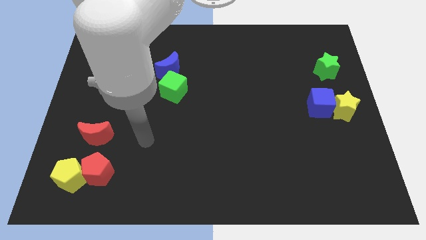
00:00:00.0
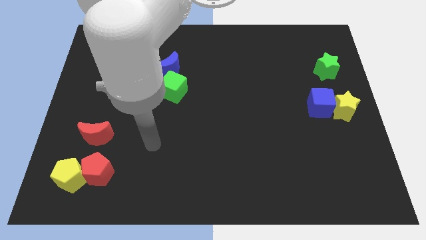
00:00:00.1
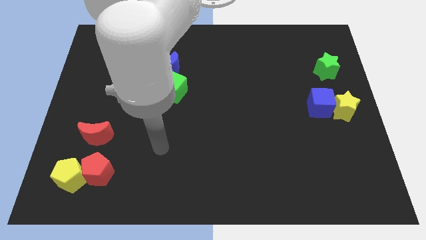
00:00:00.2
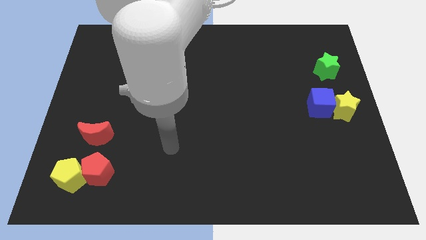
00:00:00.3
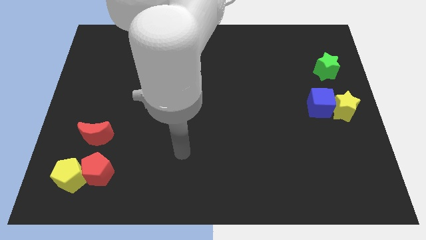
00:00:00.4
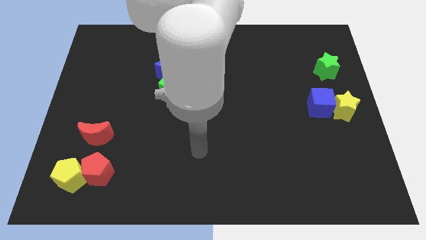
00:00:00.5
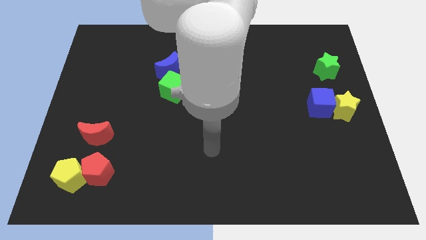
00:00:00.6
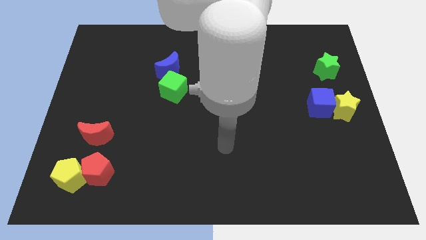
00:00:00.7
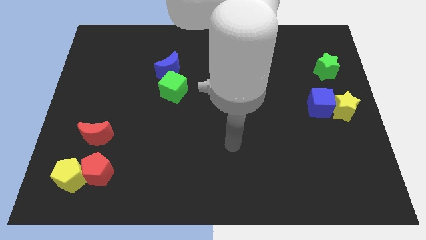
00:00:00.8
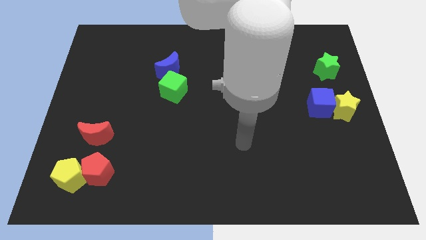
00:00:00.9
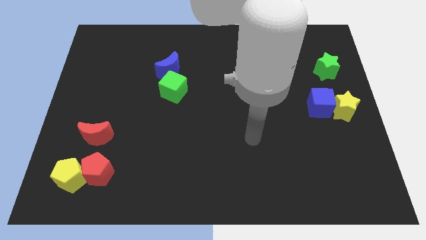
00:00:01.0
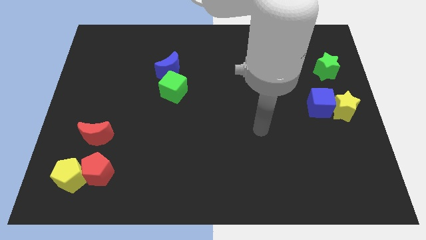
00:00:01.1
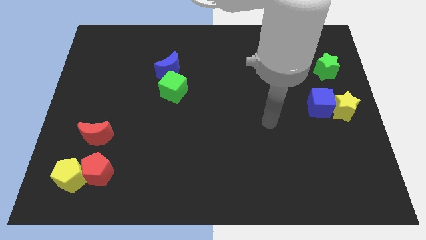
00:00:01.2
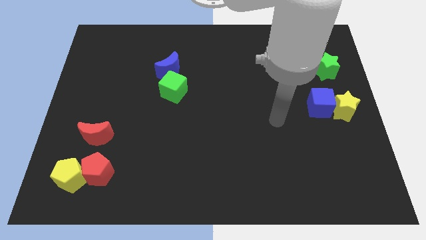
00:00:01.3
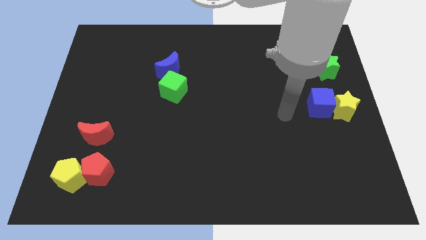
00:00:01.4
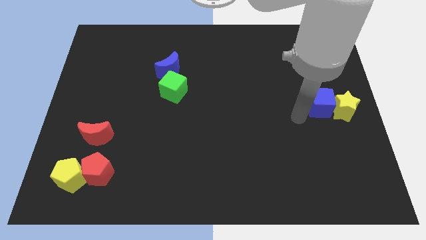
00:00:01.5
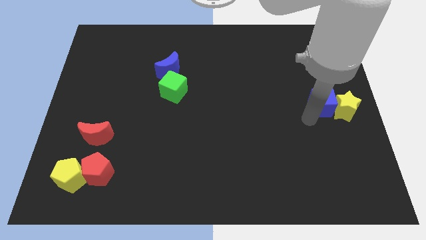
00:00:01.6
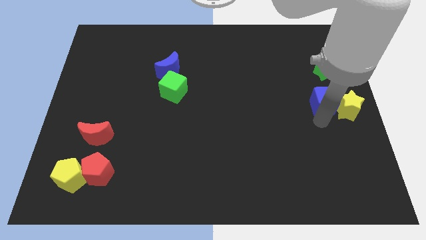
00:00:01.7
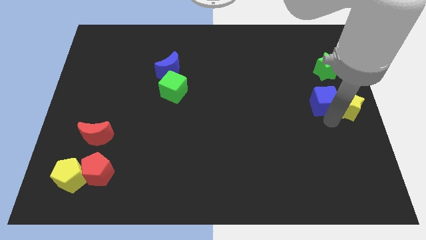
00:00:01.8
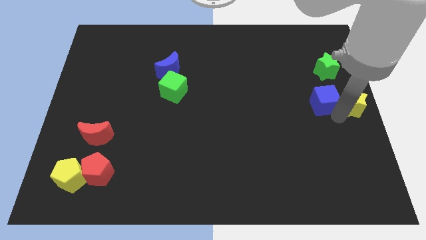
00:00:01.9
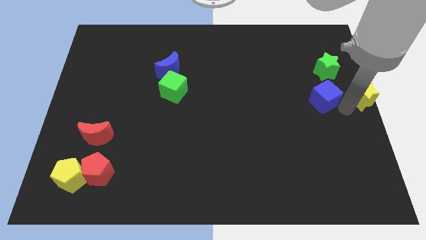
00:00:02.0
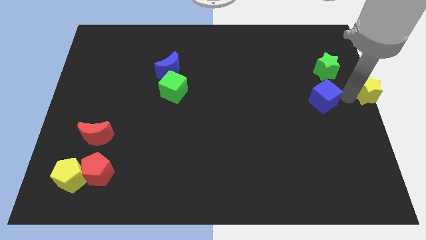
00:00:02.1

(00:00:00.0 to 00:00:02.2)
pull the blue cube apart from the yellow star

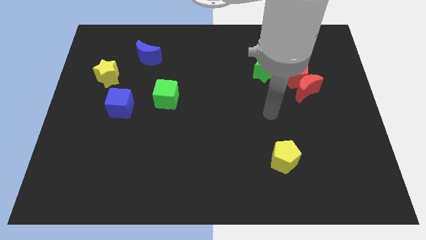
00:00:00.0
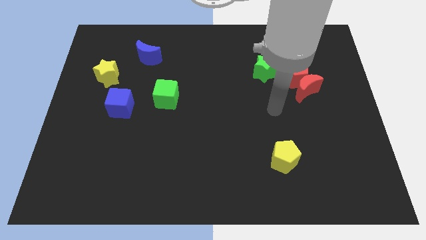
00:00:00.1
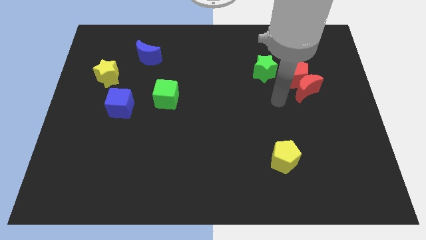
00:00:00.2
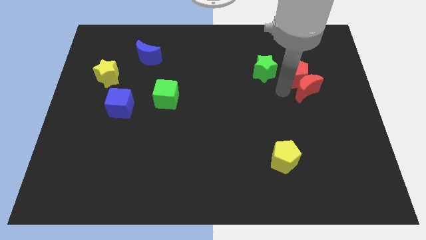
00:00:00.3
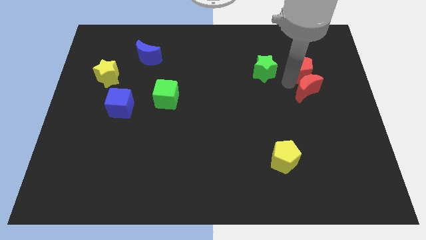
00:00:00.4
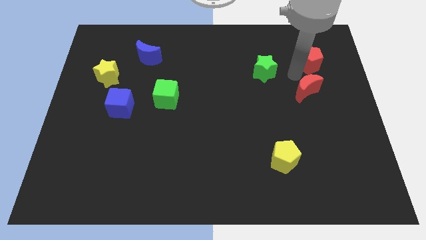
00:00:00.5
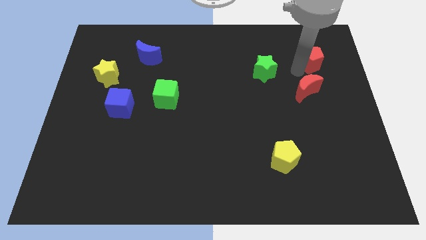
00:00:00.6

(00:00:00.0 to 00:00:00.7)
move the red moon away from the red pentagon

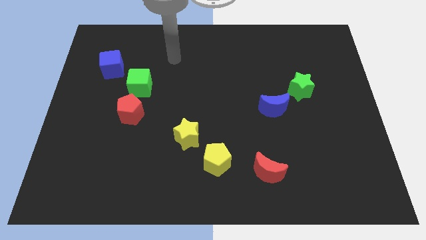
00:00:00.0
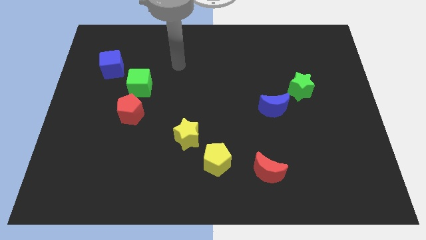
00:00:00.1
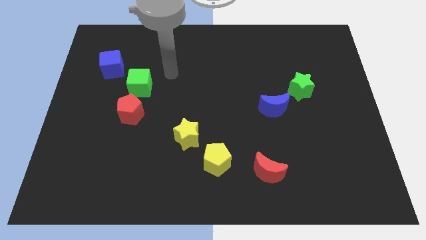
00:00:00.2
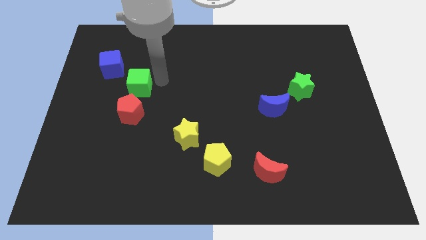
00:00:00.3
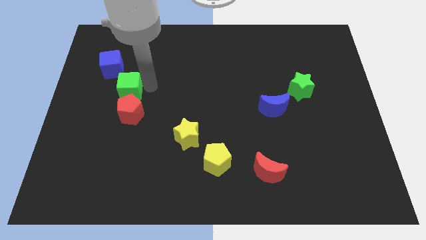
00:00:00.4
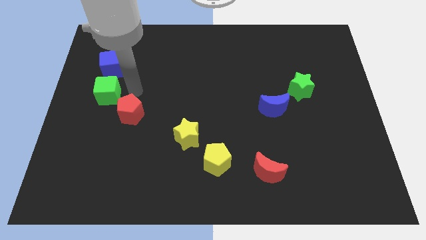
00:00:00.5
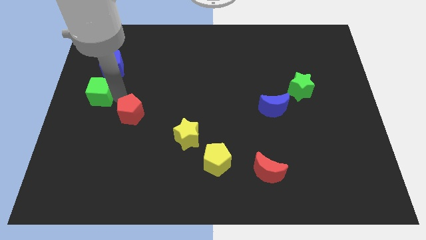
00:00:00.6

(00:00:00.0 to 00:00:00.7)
separate the red pentagon from the green cube

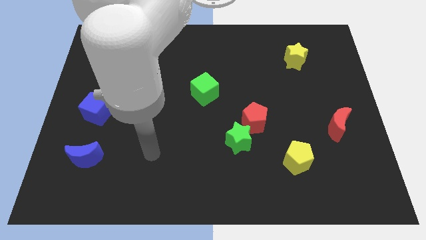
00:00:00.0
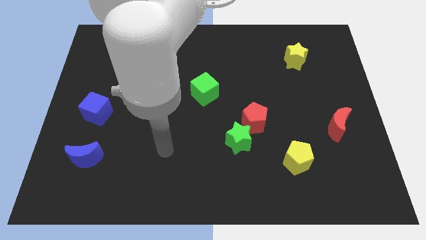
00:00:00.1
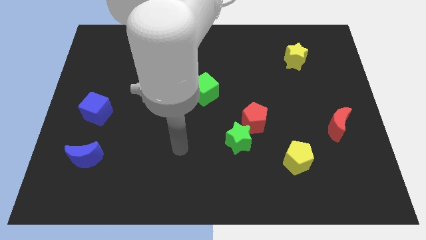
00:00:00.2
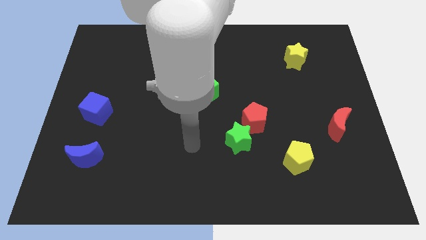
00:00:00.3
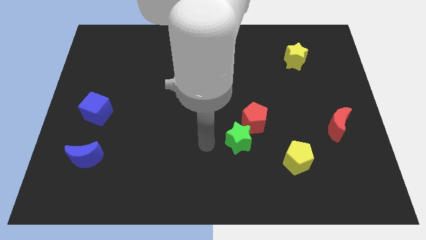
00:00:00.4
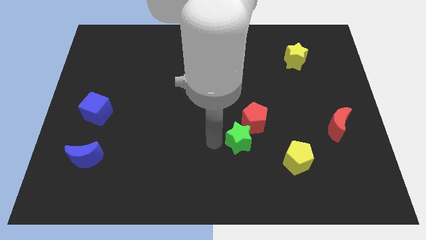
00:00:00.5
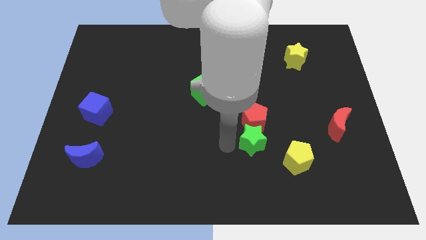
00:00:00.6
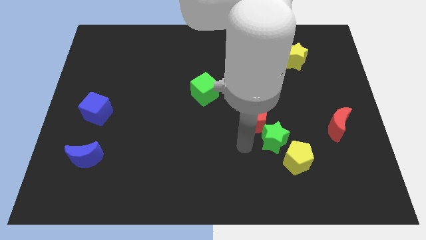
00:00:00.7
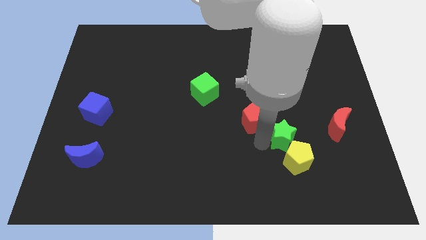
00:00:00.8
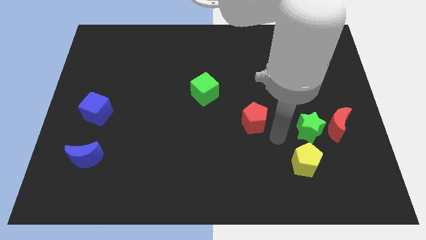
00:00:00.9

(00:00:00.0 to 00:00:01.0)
move the red pentagon away from the green star

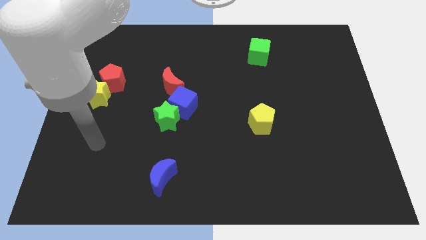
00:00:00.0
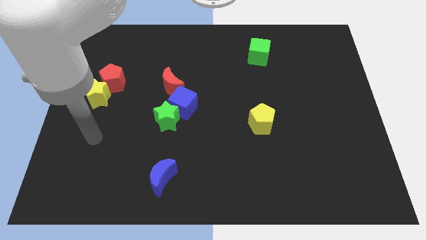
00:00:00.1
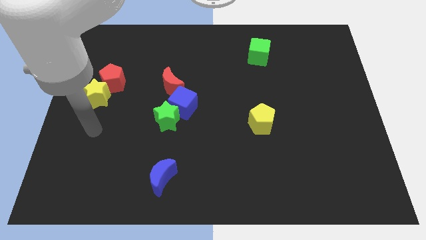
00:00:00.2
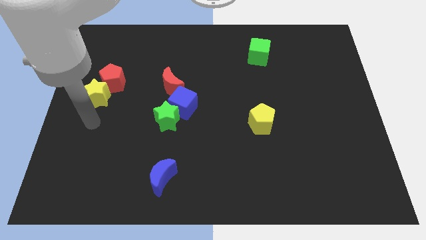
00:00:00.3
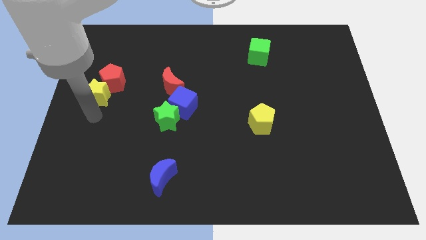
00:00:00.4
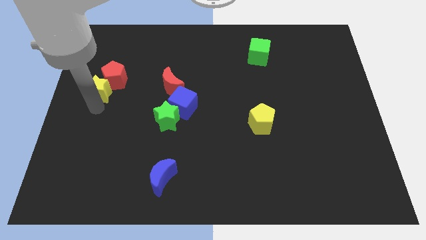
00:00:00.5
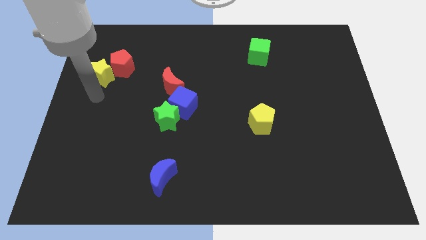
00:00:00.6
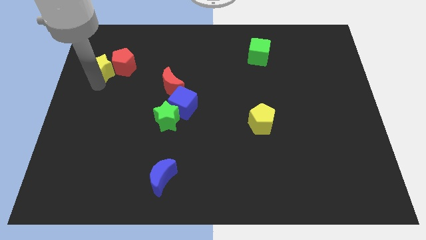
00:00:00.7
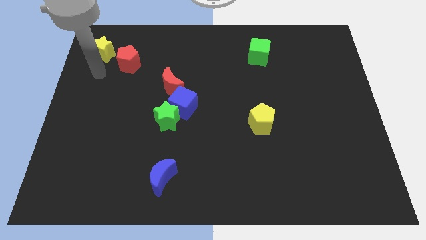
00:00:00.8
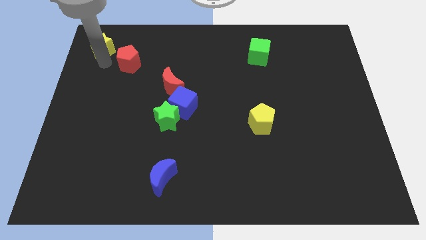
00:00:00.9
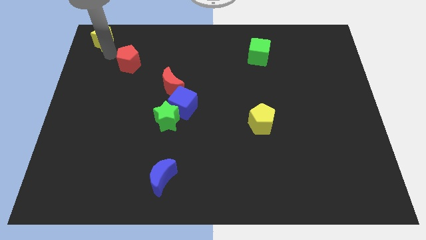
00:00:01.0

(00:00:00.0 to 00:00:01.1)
separate the red pentagon from the yellow star

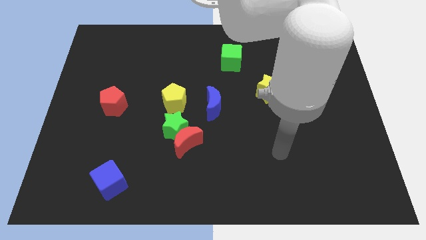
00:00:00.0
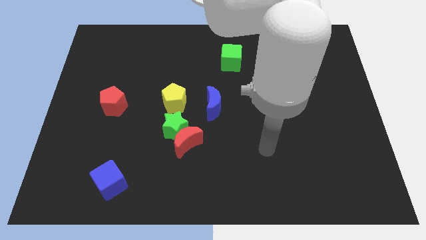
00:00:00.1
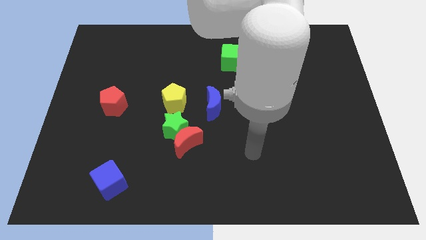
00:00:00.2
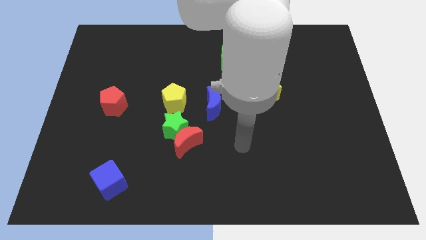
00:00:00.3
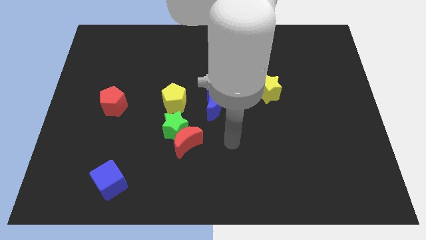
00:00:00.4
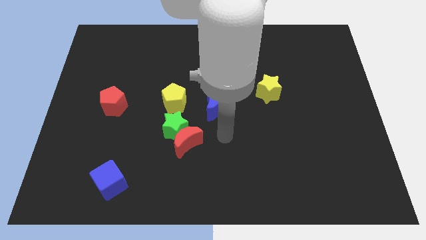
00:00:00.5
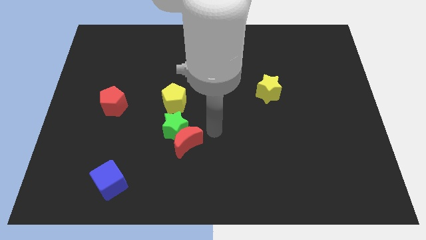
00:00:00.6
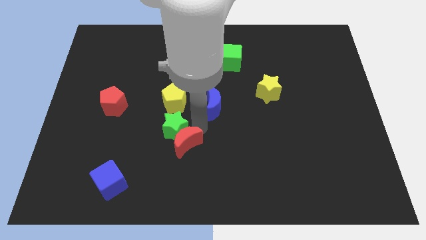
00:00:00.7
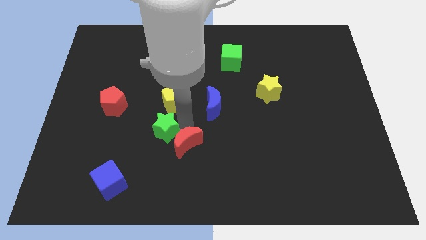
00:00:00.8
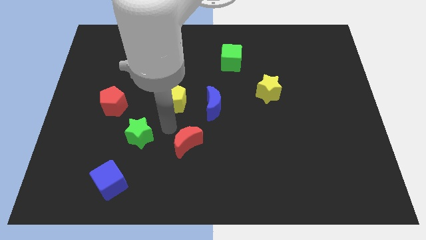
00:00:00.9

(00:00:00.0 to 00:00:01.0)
move the red moon away from the green star

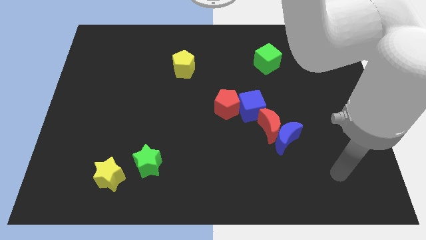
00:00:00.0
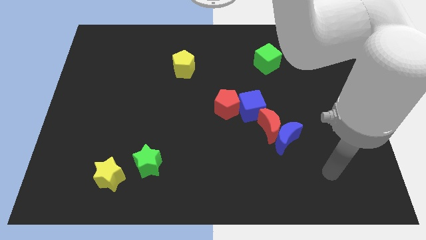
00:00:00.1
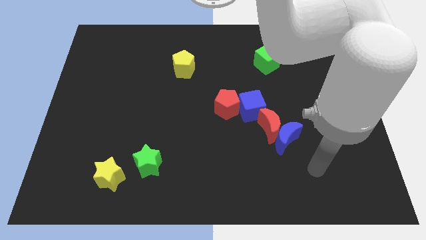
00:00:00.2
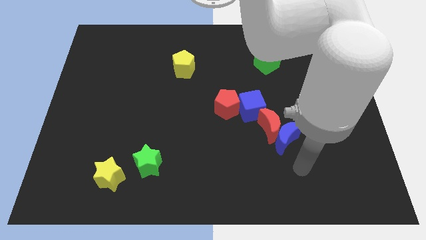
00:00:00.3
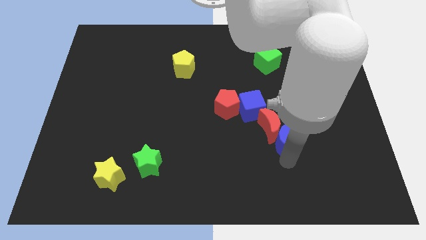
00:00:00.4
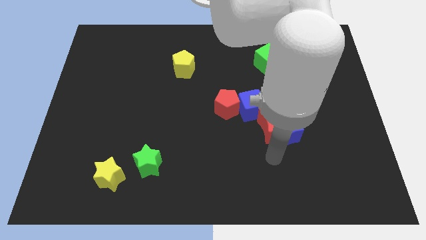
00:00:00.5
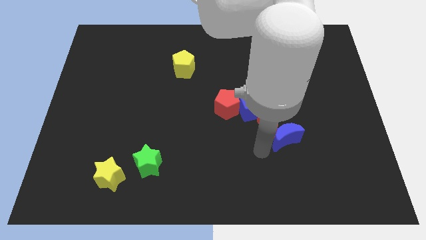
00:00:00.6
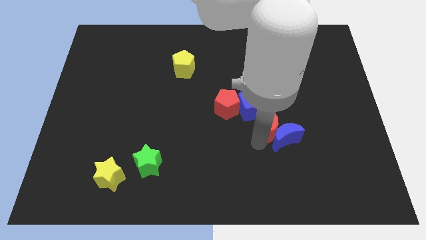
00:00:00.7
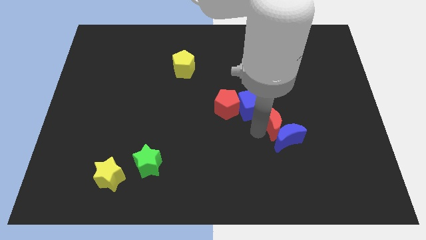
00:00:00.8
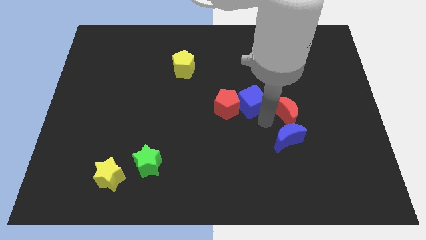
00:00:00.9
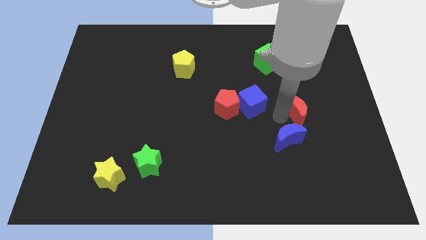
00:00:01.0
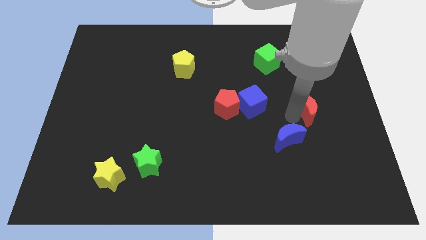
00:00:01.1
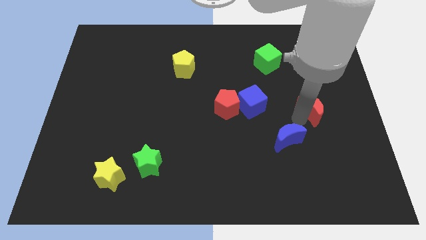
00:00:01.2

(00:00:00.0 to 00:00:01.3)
move the blue moon away from the red moon

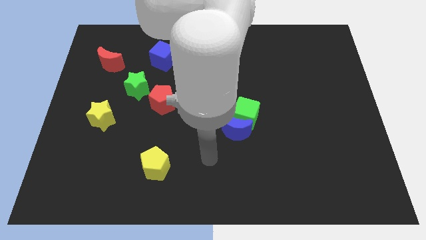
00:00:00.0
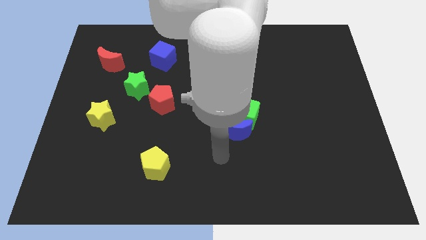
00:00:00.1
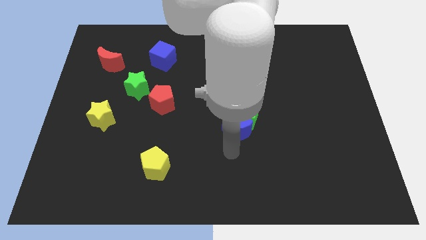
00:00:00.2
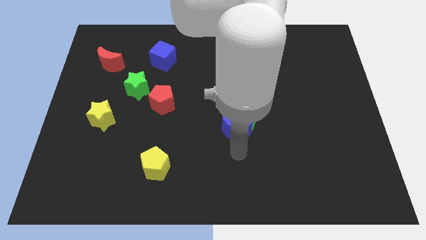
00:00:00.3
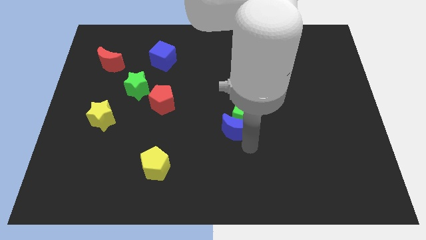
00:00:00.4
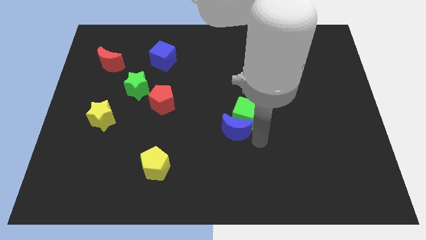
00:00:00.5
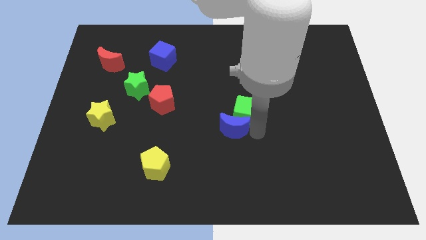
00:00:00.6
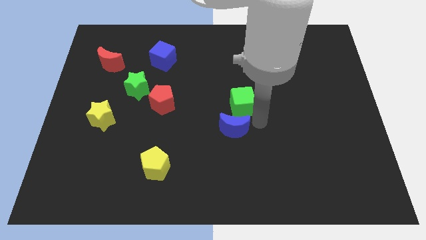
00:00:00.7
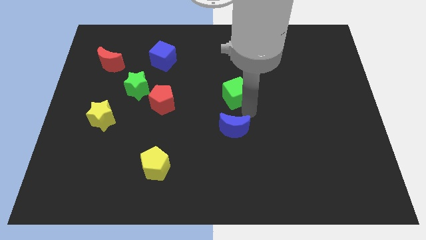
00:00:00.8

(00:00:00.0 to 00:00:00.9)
move the blue moon away from the green cube

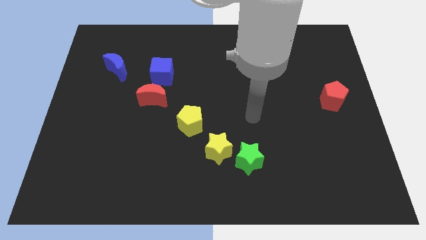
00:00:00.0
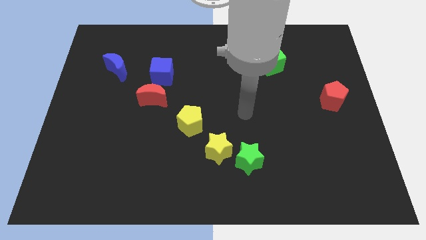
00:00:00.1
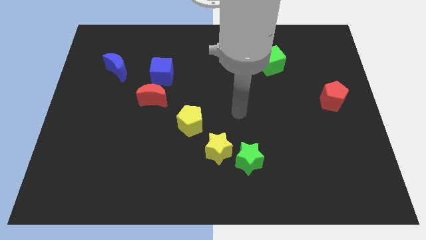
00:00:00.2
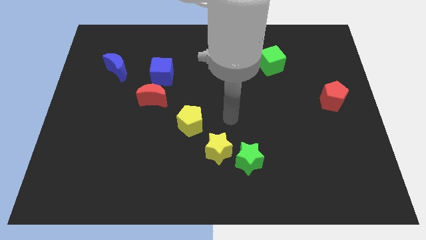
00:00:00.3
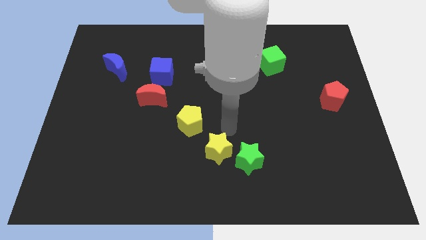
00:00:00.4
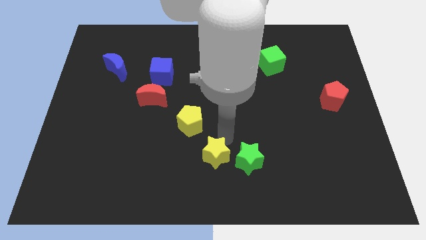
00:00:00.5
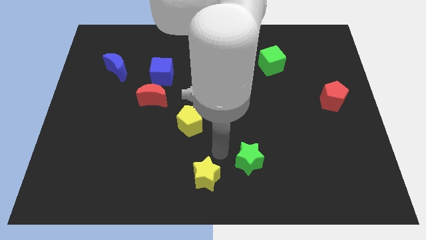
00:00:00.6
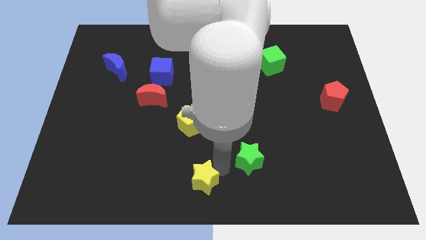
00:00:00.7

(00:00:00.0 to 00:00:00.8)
pull the green star apart from the yellow star
